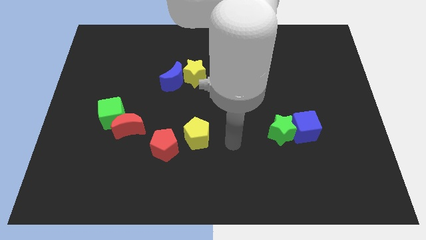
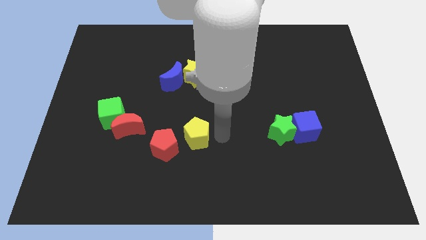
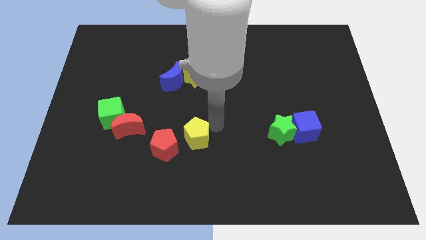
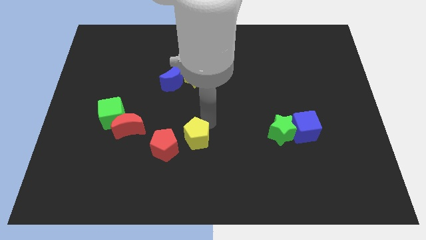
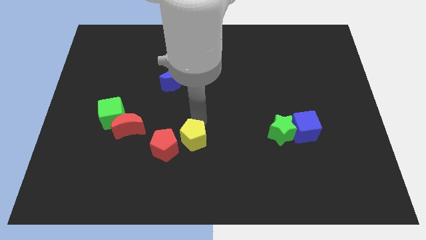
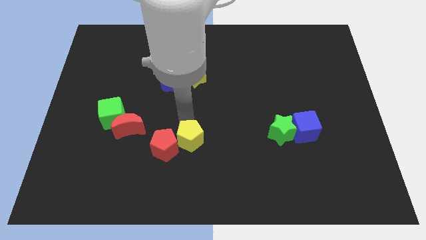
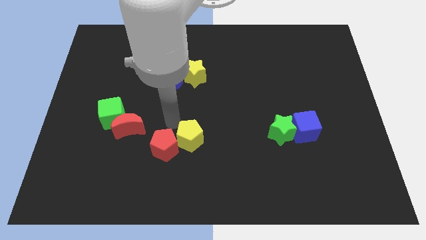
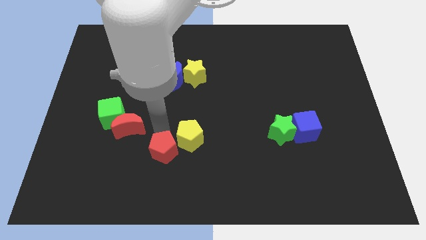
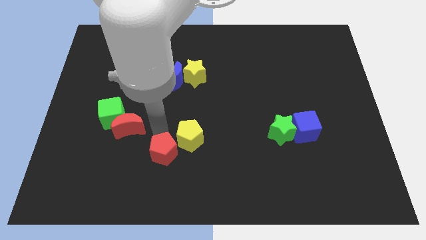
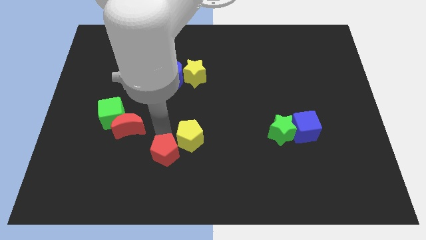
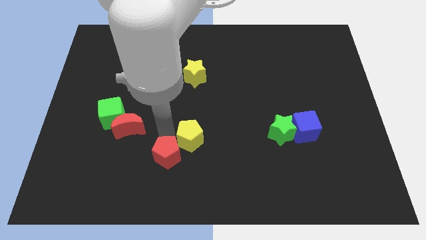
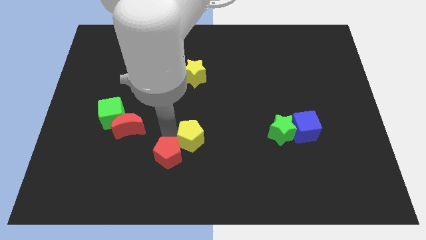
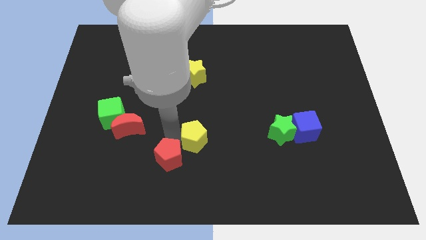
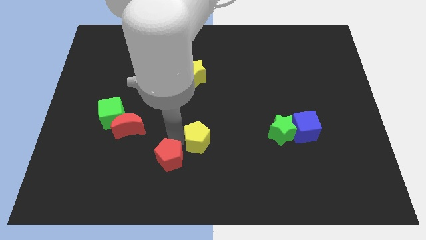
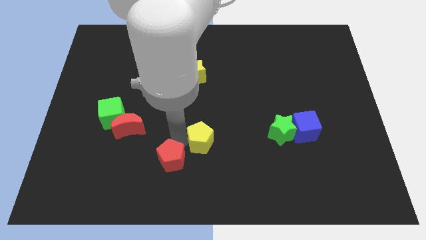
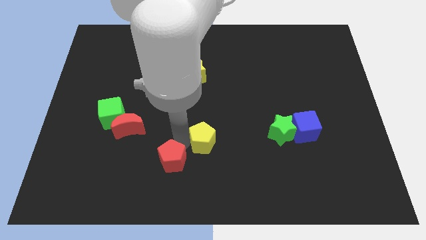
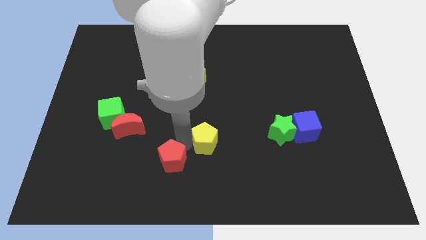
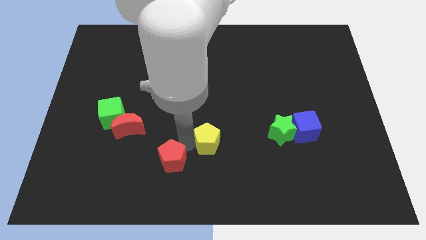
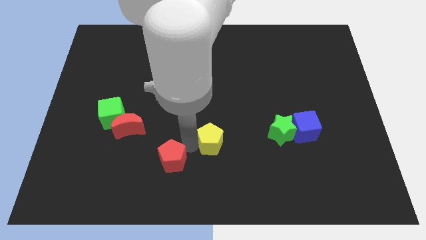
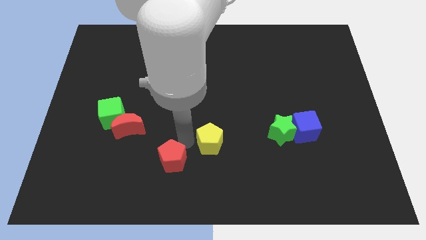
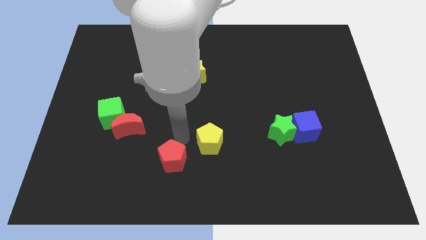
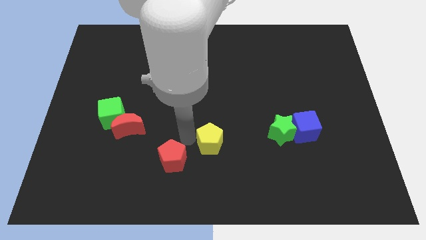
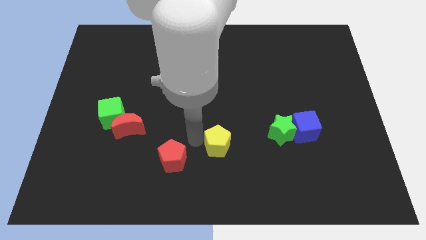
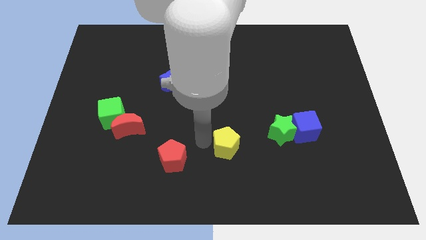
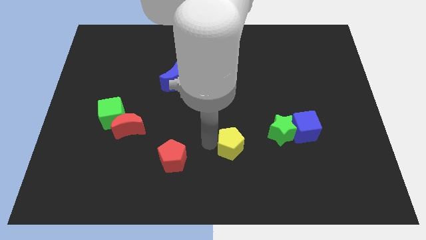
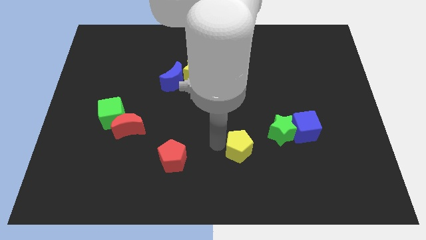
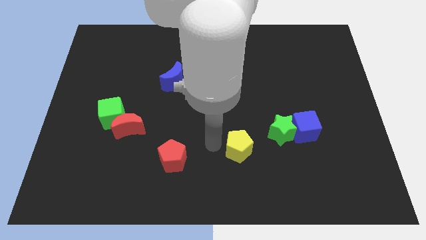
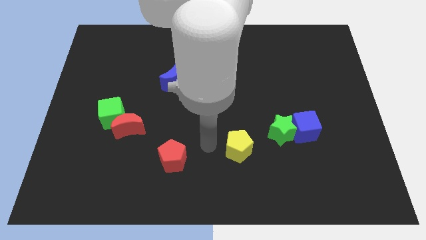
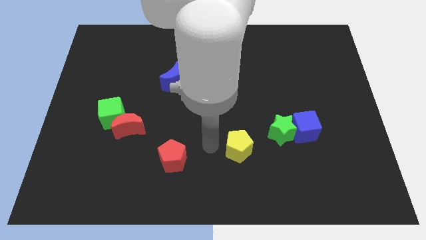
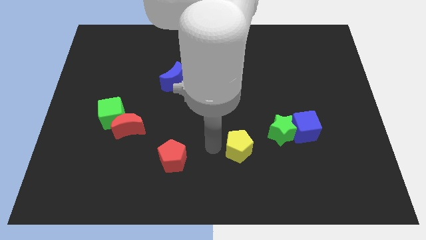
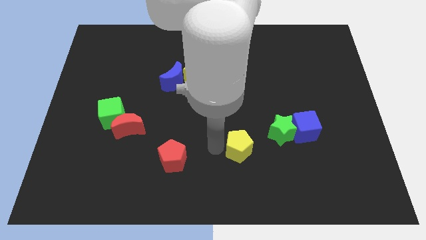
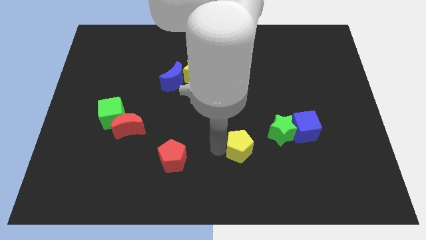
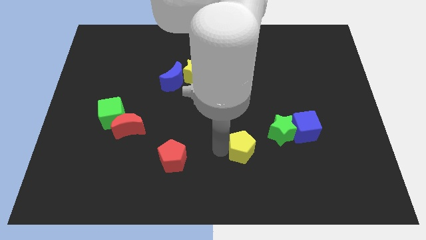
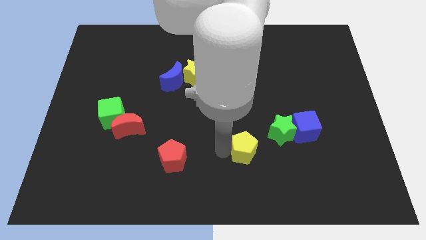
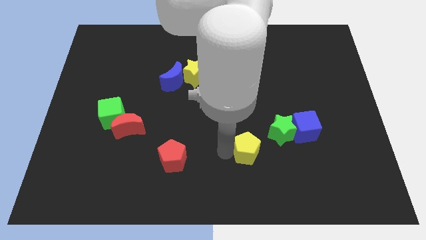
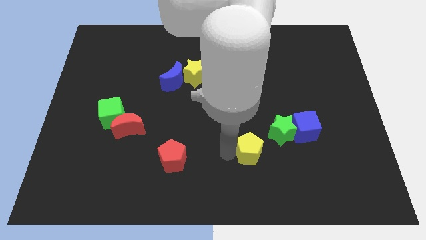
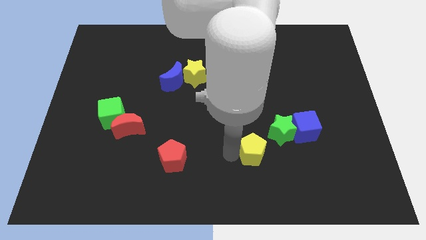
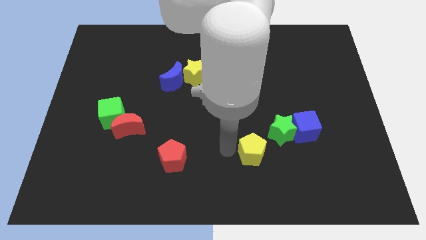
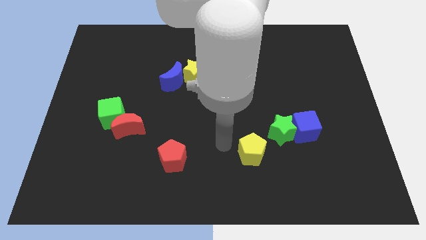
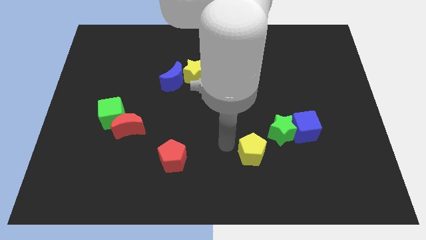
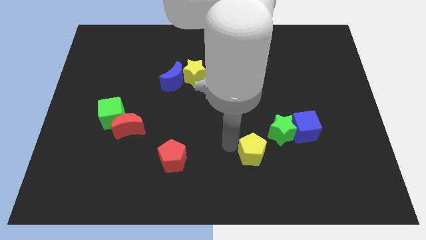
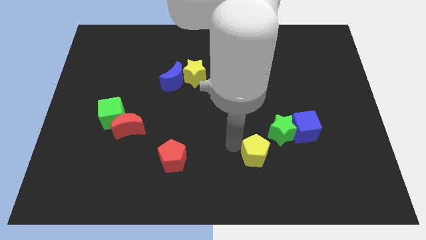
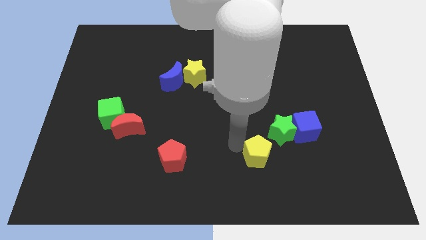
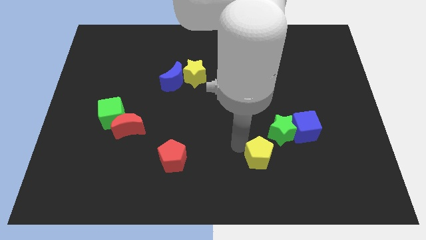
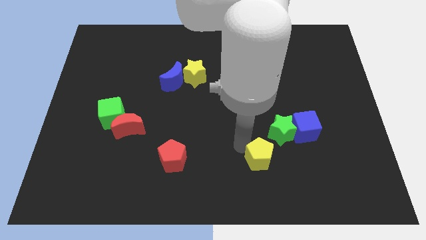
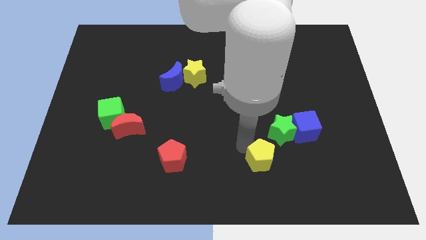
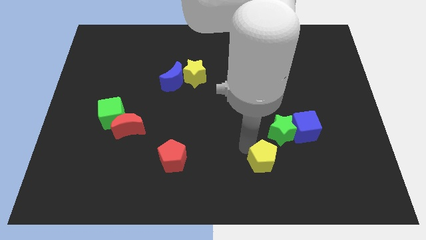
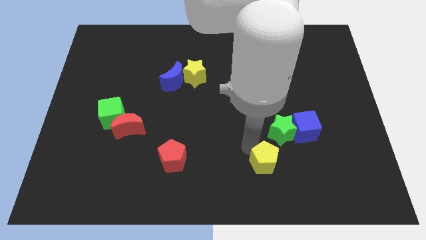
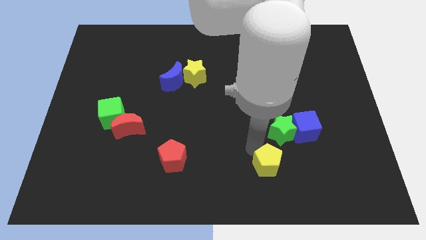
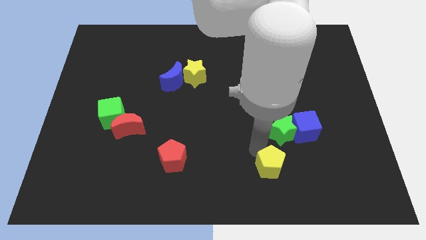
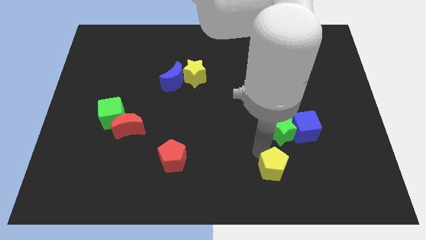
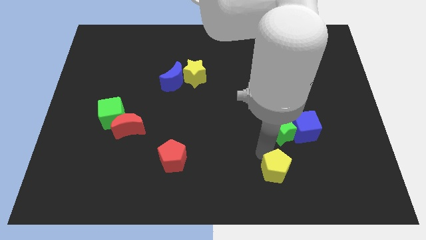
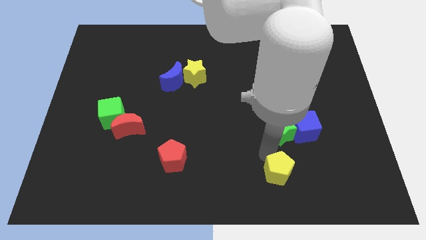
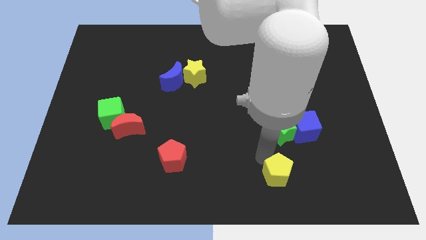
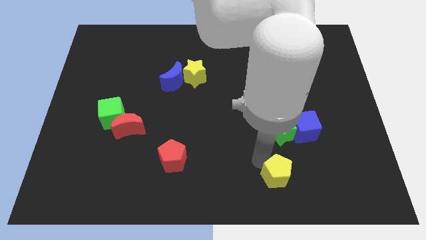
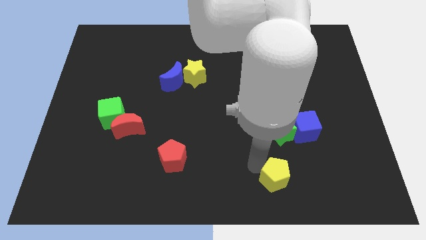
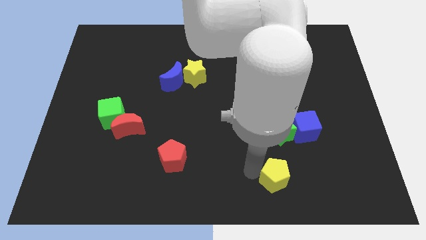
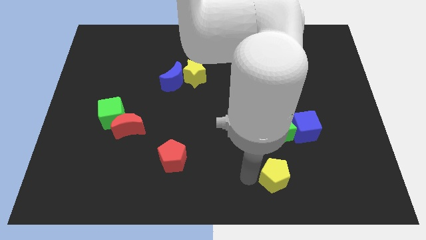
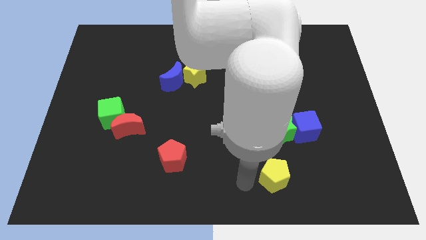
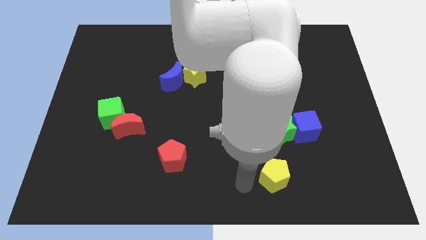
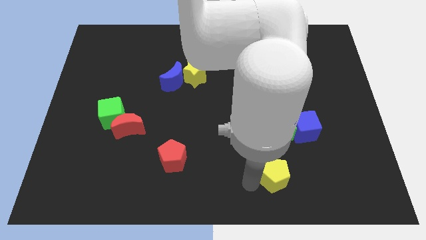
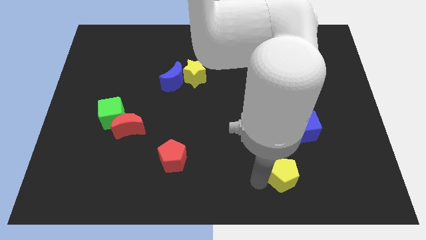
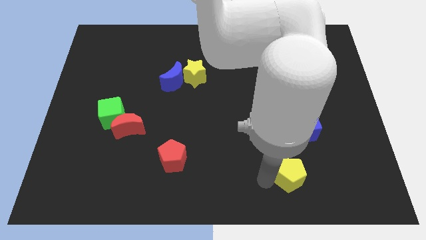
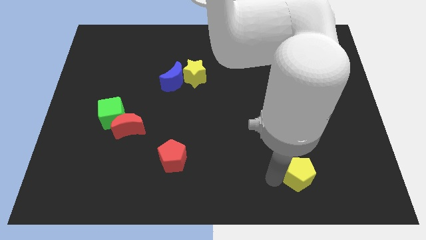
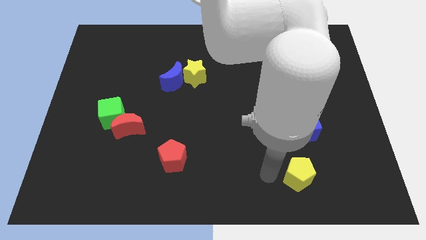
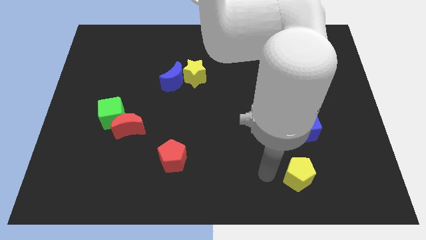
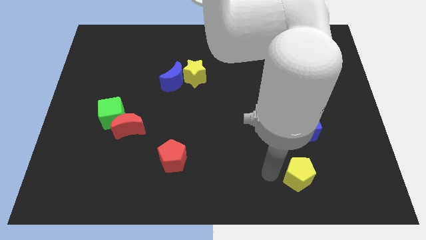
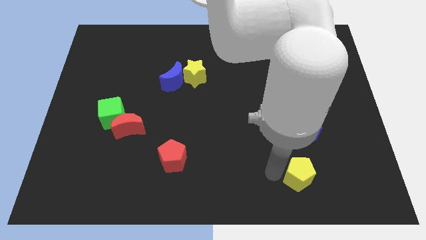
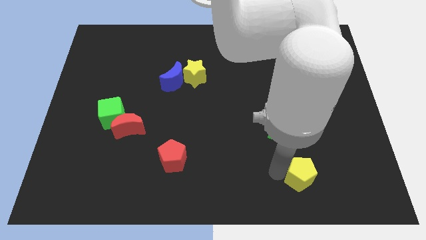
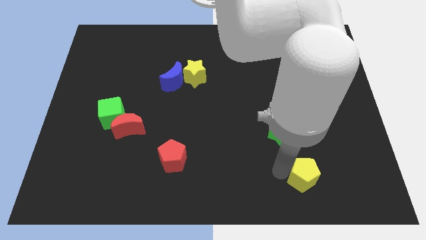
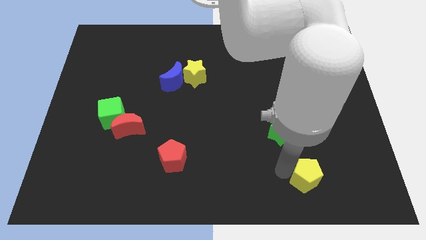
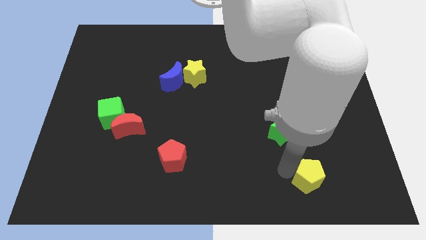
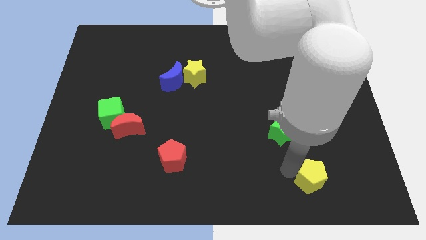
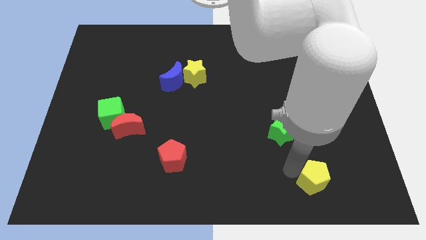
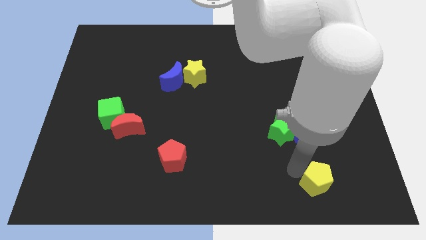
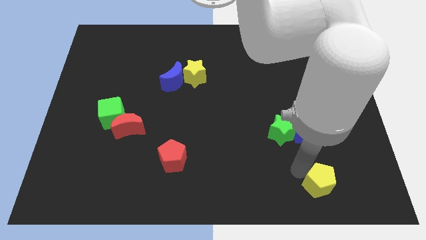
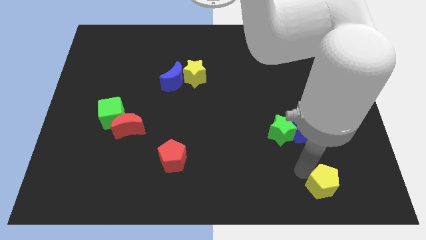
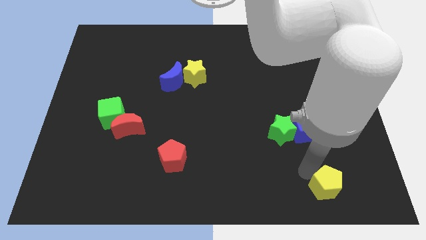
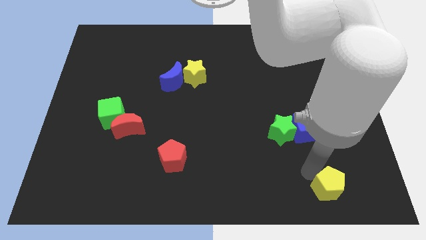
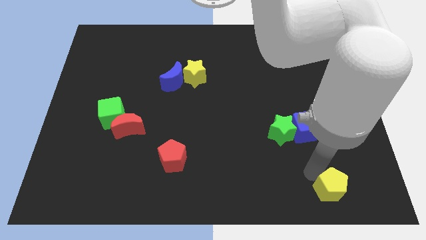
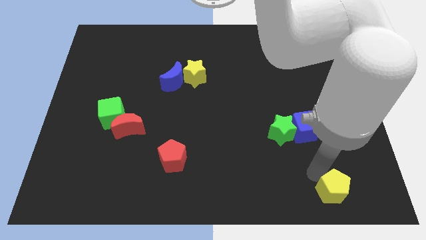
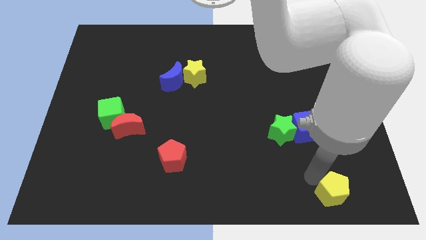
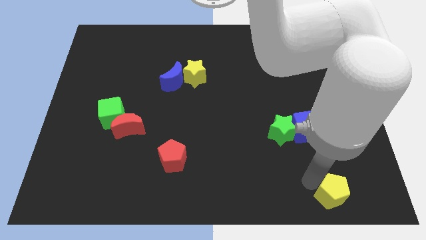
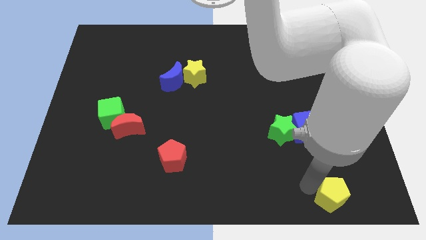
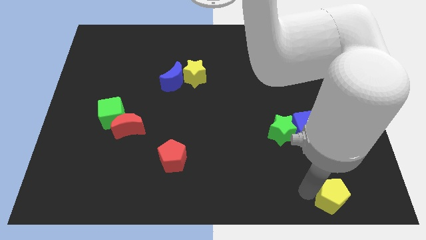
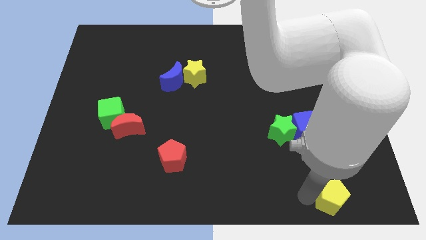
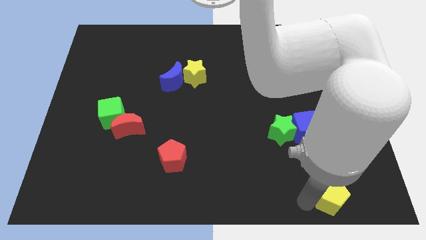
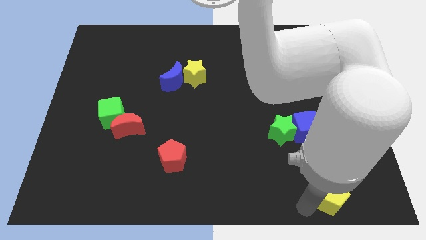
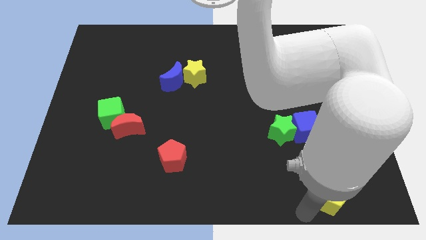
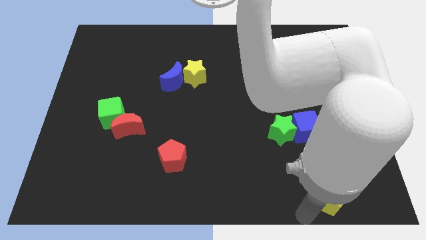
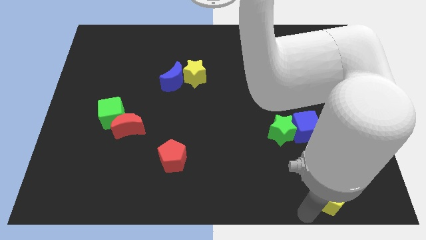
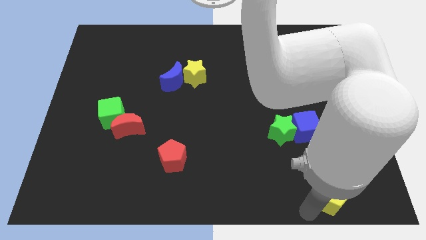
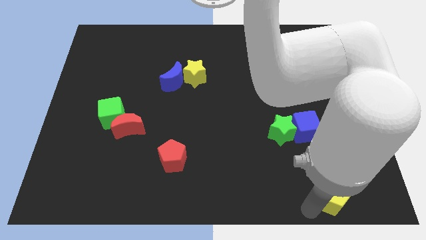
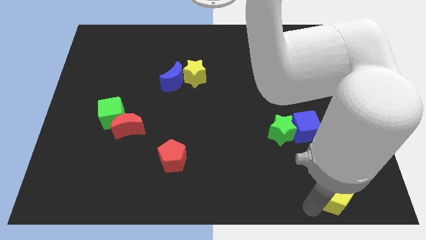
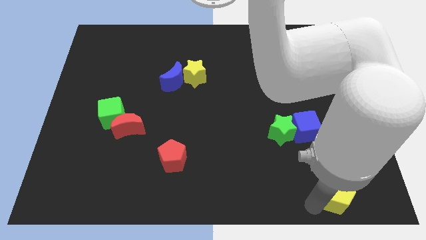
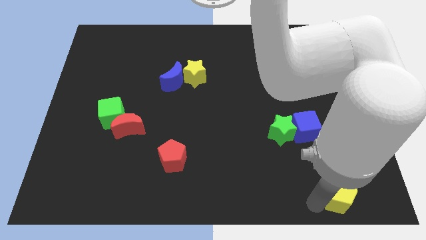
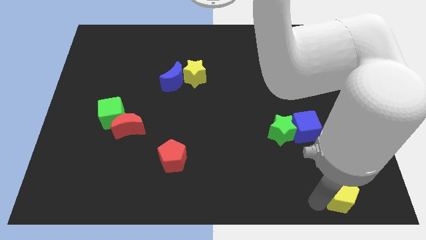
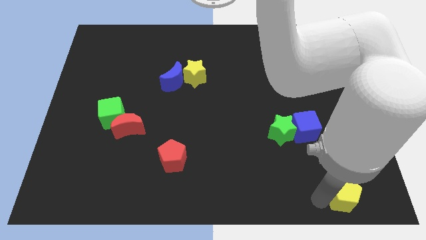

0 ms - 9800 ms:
slide the yellow pentagon to the bottom right corner
